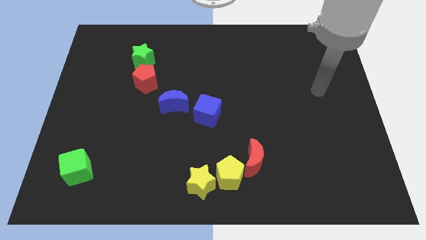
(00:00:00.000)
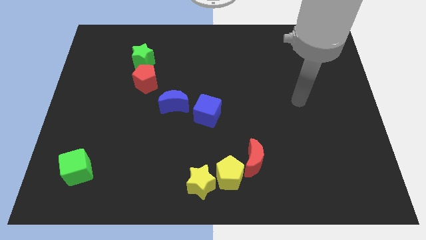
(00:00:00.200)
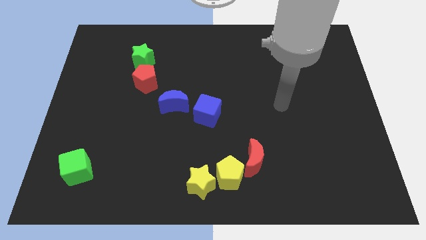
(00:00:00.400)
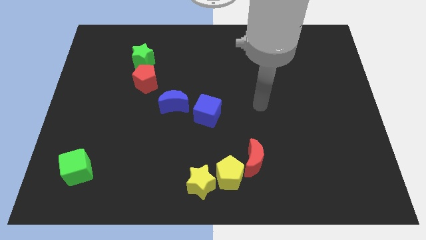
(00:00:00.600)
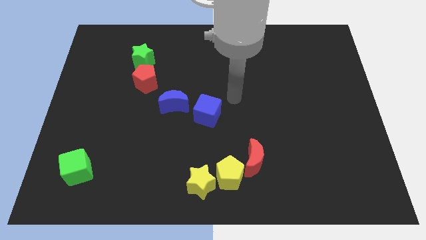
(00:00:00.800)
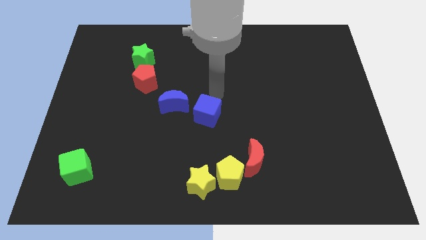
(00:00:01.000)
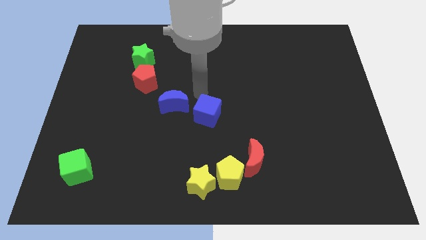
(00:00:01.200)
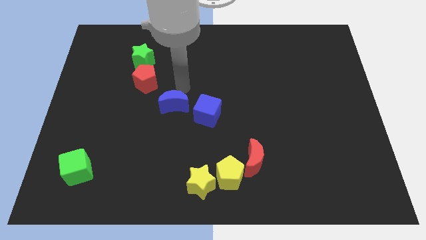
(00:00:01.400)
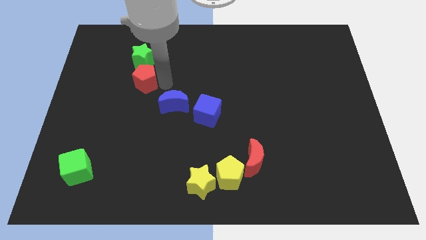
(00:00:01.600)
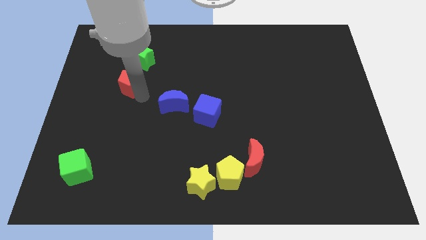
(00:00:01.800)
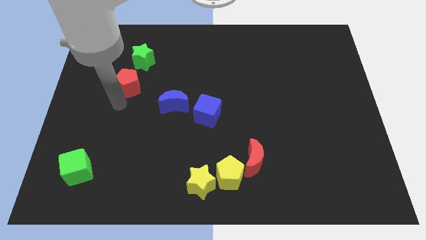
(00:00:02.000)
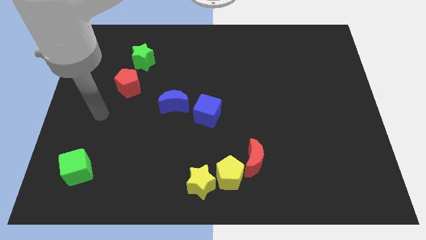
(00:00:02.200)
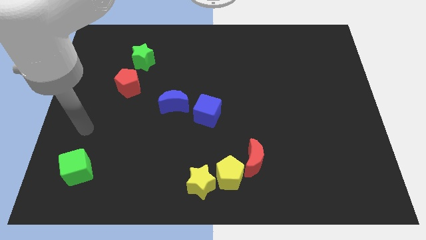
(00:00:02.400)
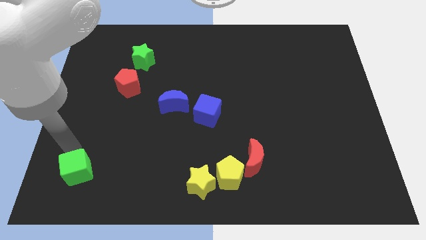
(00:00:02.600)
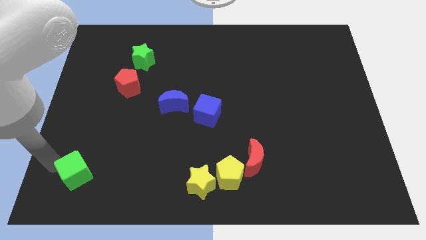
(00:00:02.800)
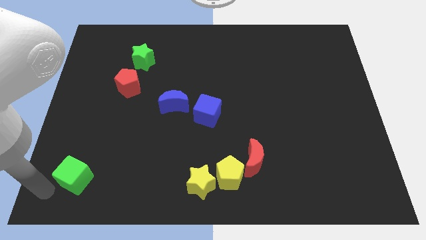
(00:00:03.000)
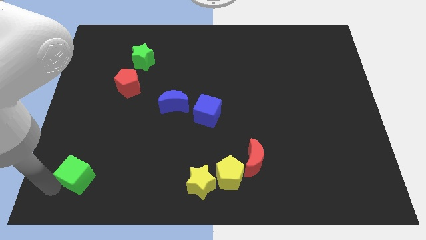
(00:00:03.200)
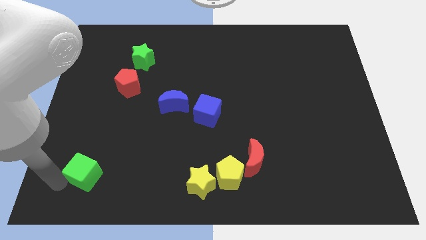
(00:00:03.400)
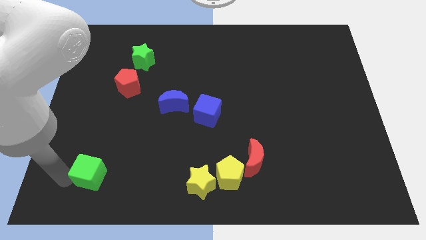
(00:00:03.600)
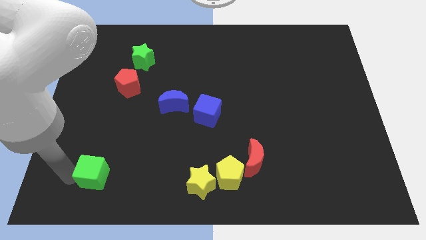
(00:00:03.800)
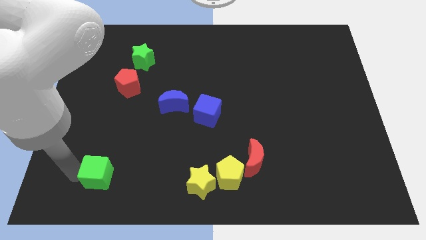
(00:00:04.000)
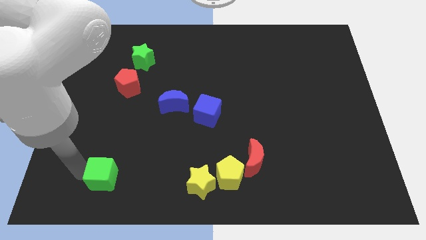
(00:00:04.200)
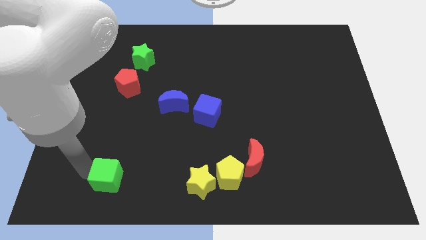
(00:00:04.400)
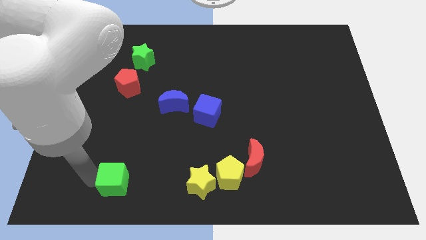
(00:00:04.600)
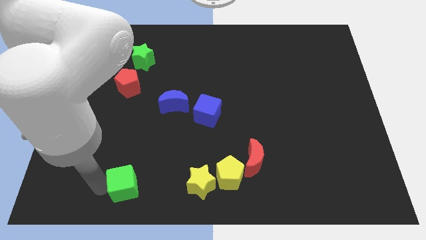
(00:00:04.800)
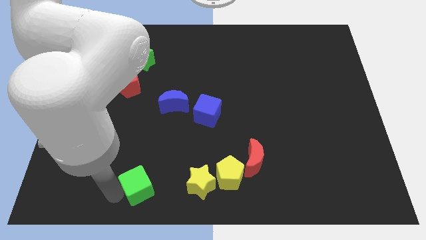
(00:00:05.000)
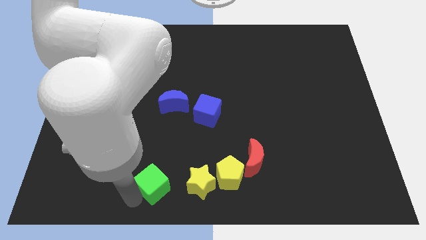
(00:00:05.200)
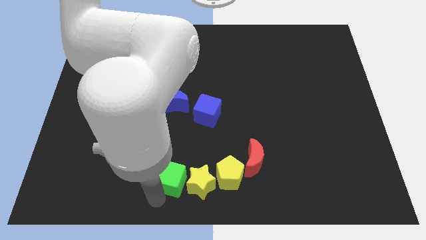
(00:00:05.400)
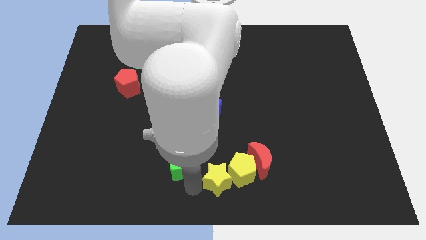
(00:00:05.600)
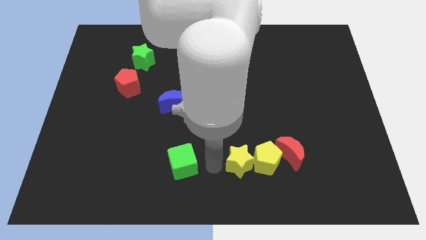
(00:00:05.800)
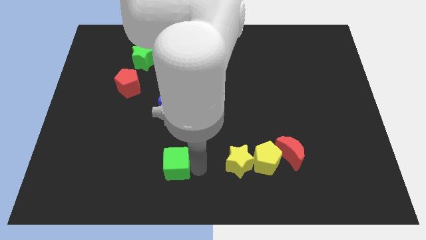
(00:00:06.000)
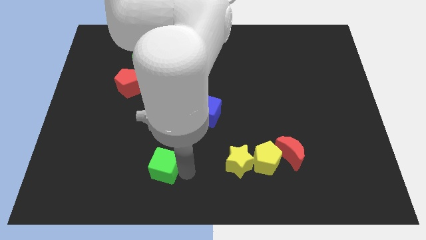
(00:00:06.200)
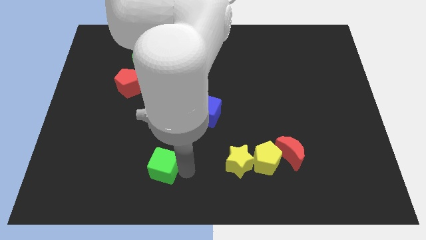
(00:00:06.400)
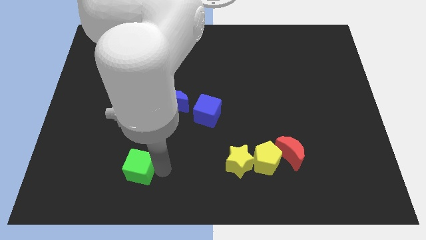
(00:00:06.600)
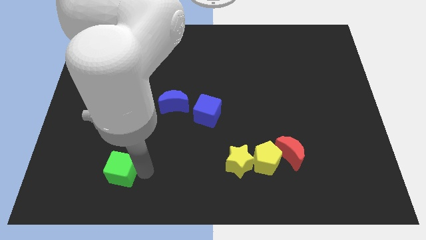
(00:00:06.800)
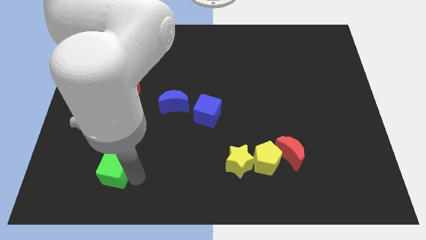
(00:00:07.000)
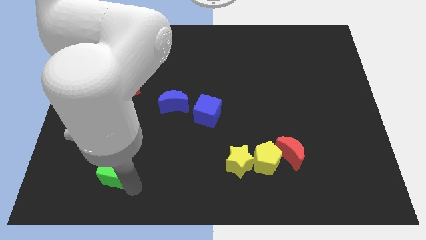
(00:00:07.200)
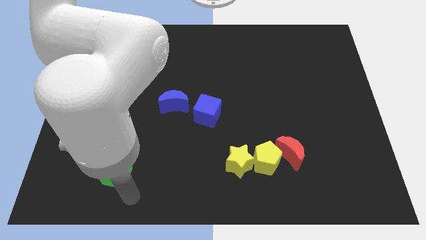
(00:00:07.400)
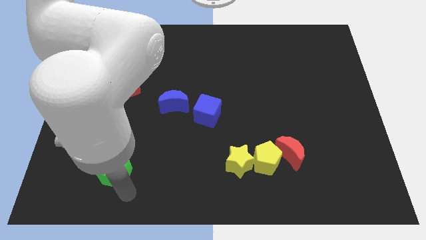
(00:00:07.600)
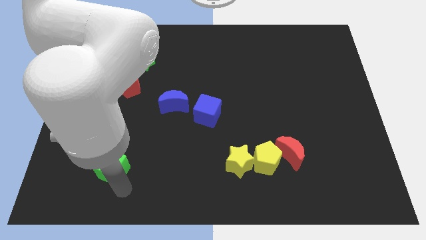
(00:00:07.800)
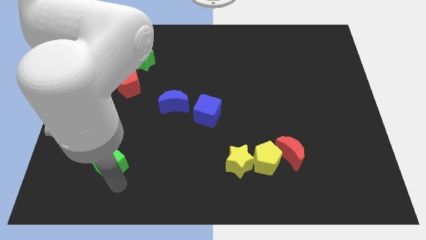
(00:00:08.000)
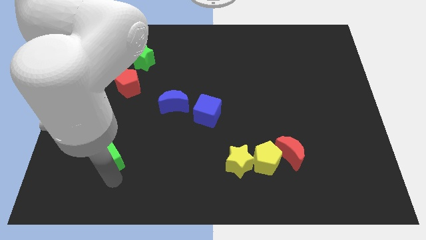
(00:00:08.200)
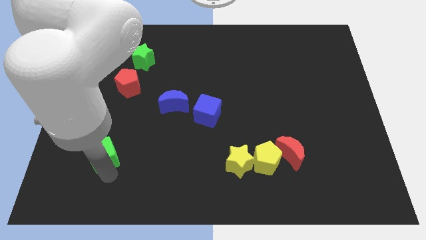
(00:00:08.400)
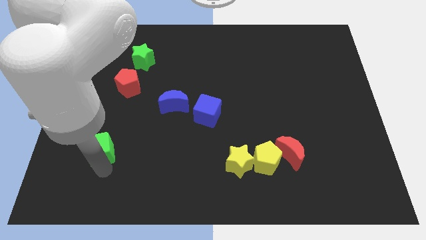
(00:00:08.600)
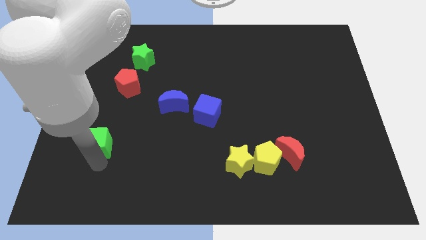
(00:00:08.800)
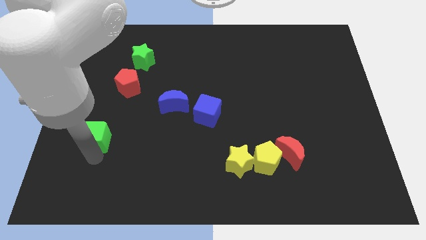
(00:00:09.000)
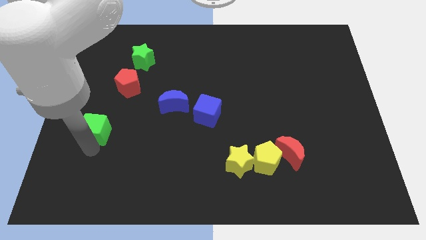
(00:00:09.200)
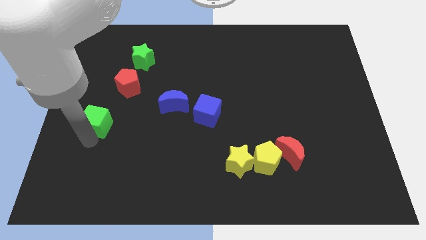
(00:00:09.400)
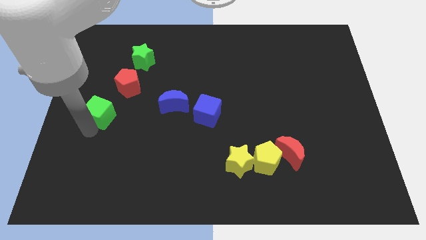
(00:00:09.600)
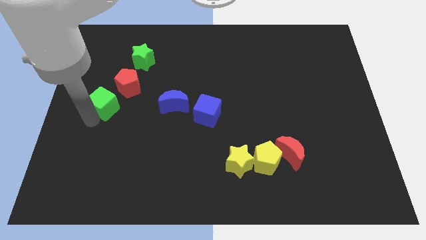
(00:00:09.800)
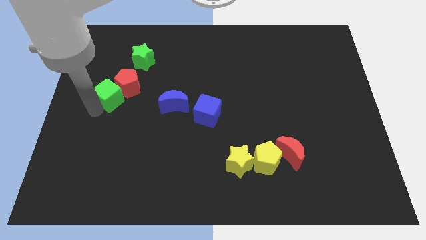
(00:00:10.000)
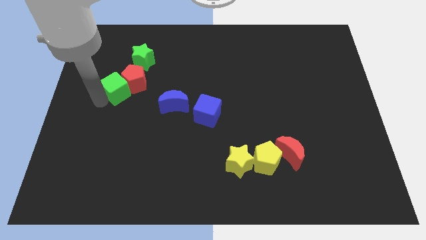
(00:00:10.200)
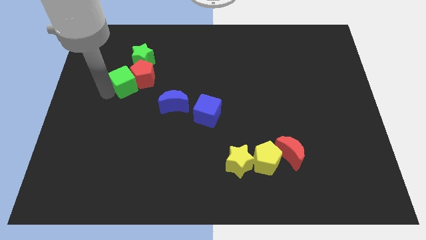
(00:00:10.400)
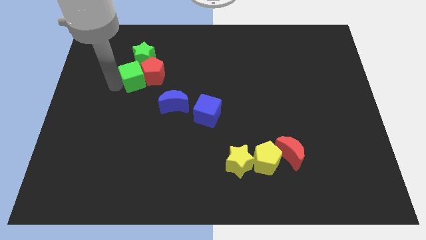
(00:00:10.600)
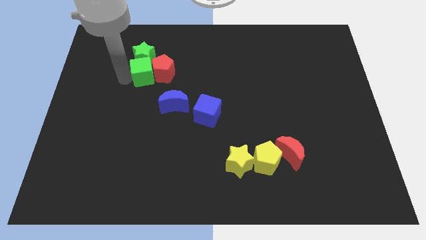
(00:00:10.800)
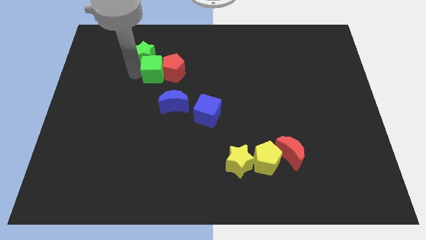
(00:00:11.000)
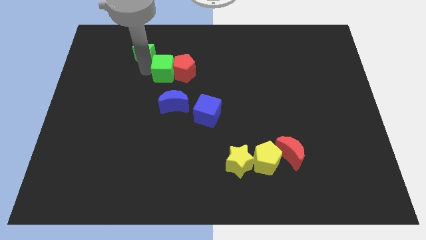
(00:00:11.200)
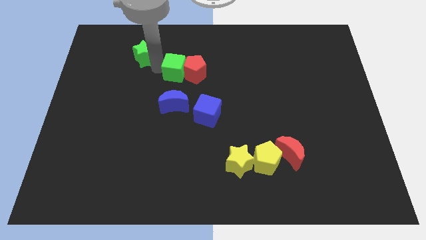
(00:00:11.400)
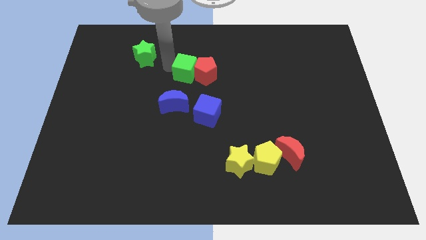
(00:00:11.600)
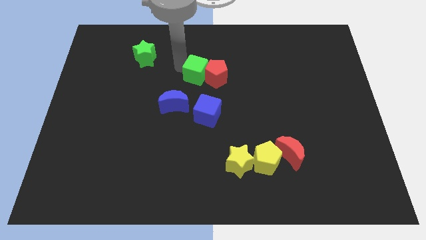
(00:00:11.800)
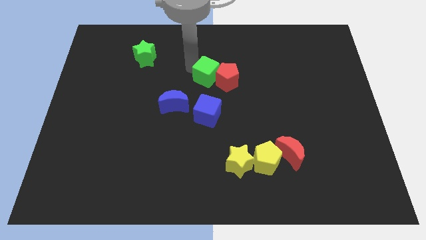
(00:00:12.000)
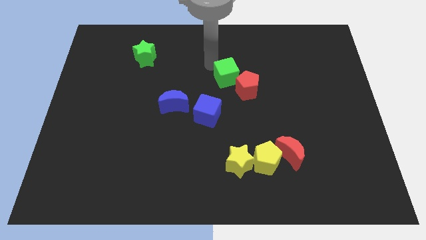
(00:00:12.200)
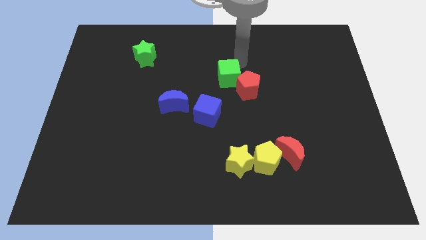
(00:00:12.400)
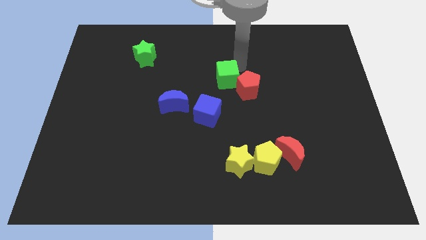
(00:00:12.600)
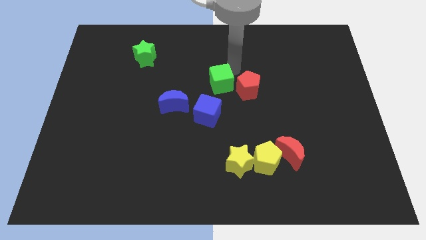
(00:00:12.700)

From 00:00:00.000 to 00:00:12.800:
push the green cube diagonally up and to the right of the blue cube

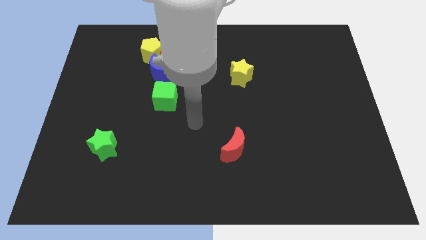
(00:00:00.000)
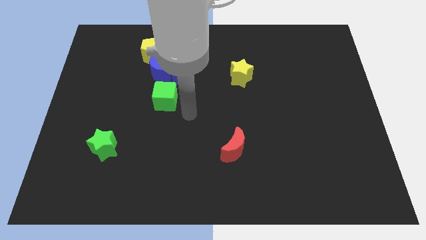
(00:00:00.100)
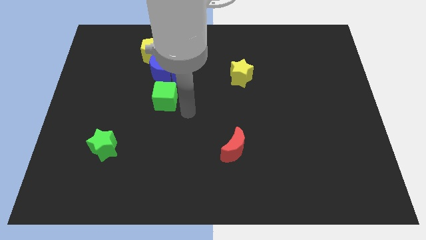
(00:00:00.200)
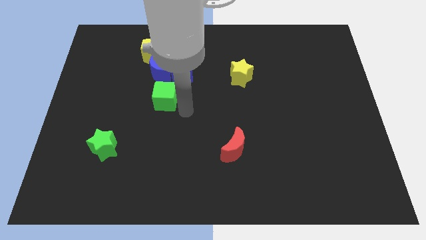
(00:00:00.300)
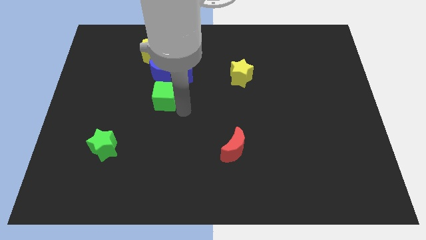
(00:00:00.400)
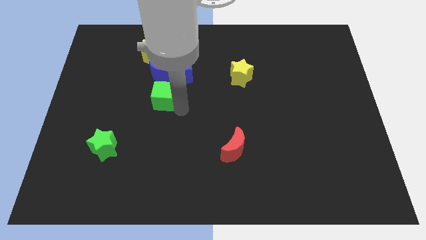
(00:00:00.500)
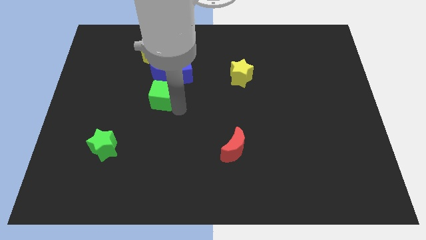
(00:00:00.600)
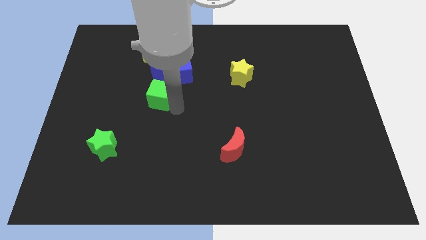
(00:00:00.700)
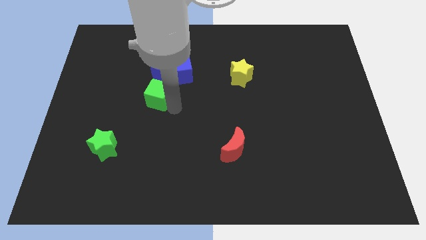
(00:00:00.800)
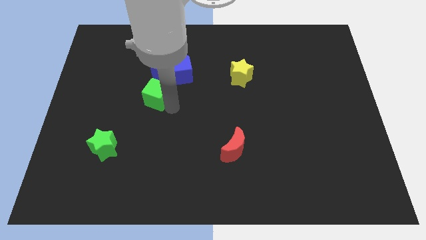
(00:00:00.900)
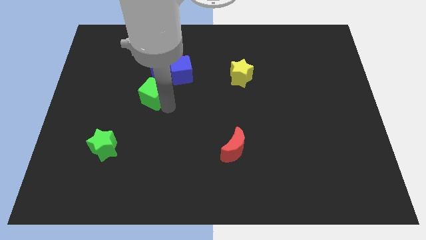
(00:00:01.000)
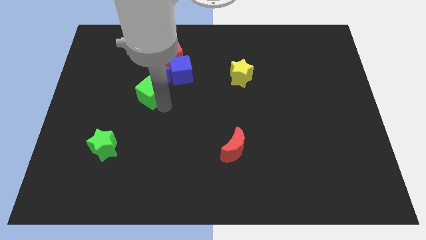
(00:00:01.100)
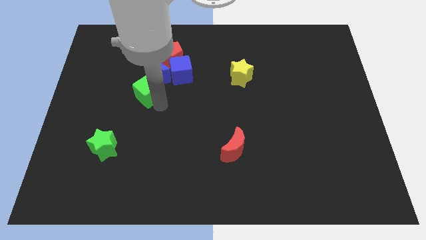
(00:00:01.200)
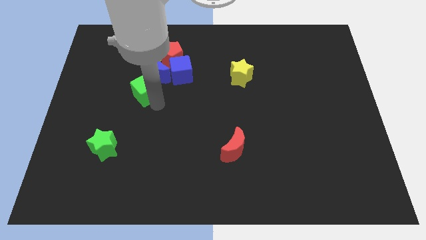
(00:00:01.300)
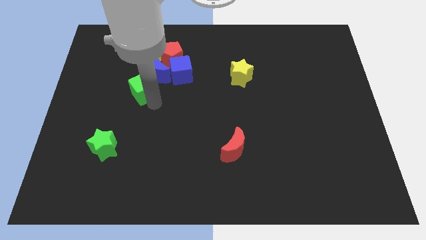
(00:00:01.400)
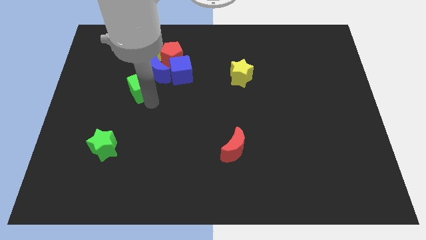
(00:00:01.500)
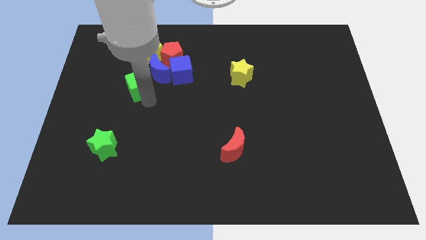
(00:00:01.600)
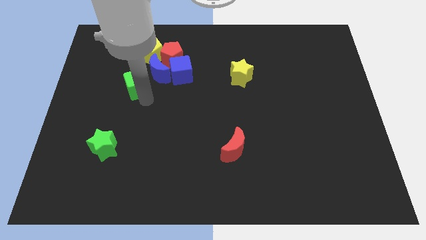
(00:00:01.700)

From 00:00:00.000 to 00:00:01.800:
put the green cube just left of the blue cube
